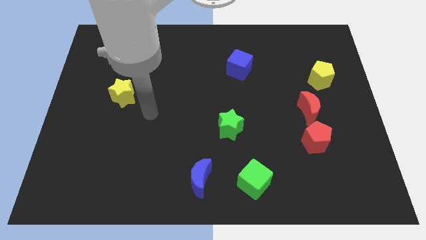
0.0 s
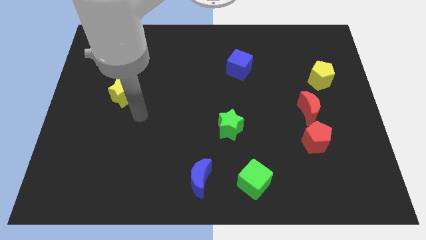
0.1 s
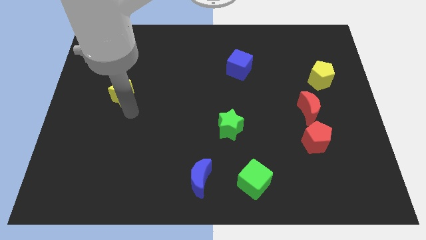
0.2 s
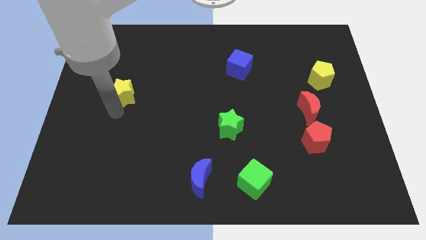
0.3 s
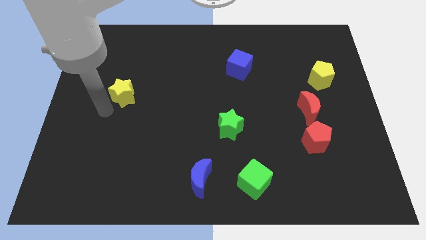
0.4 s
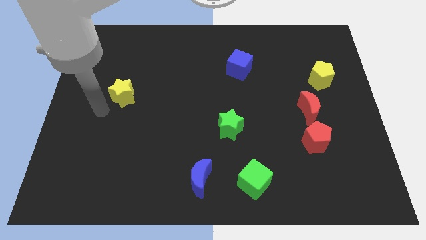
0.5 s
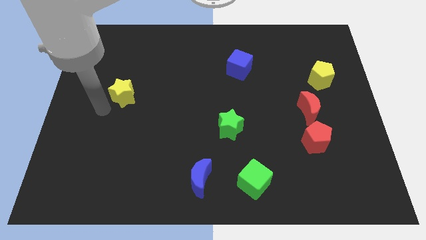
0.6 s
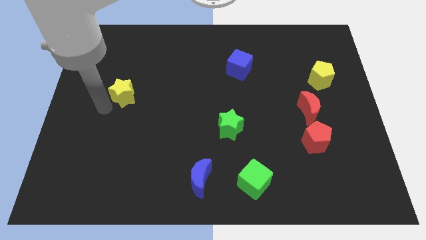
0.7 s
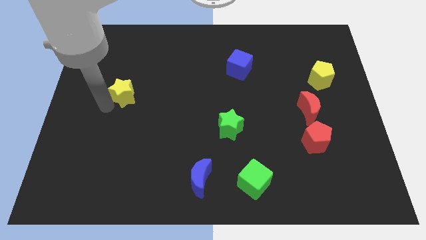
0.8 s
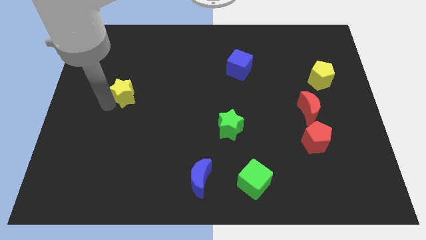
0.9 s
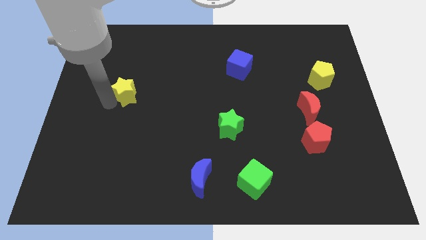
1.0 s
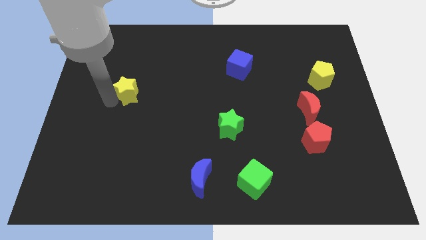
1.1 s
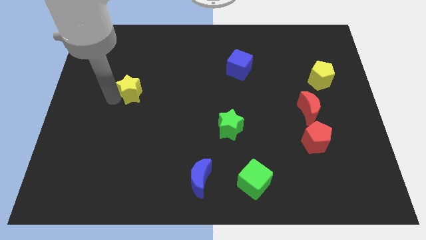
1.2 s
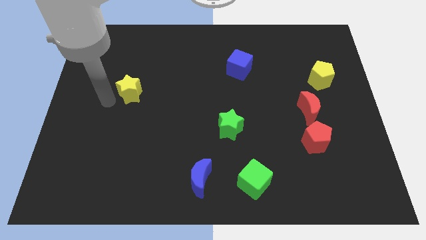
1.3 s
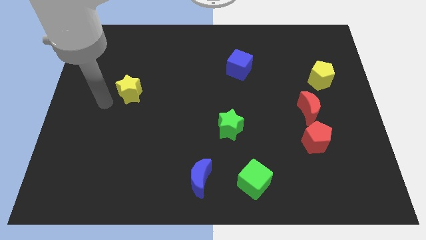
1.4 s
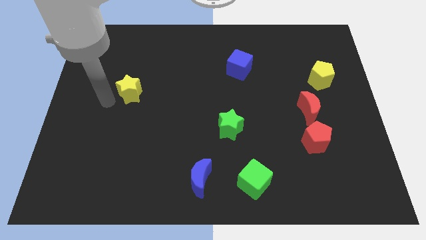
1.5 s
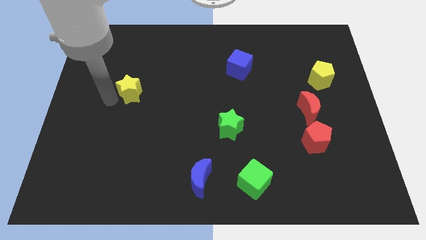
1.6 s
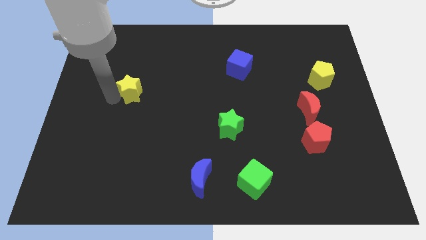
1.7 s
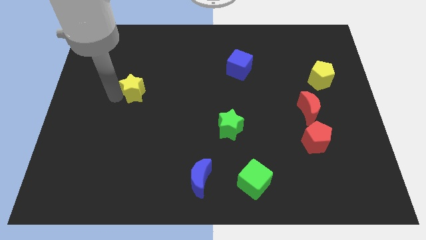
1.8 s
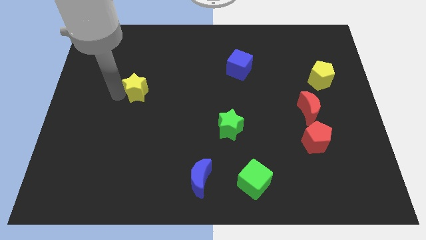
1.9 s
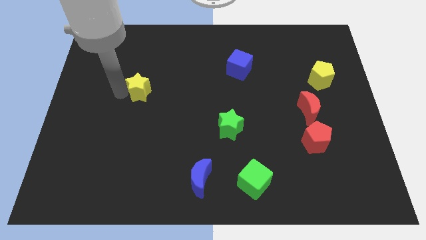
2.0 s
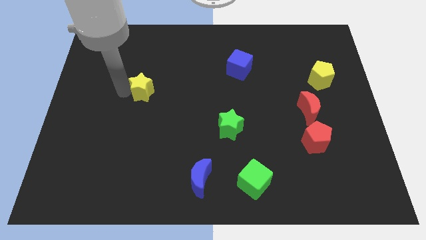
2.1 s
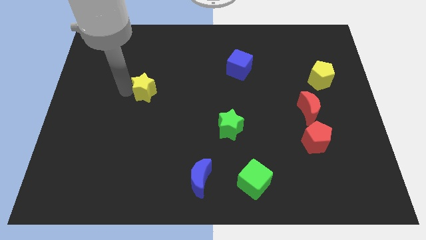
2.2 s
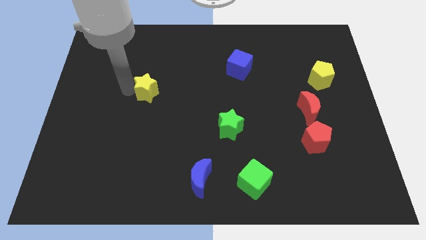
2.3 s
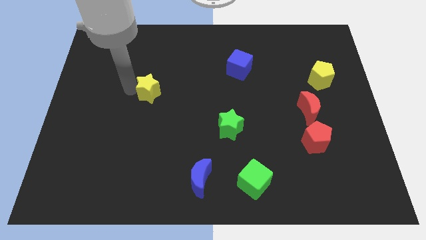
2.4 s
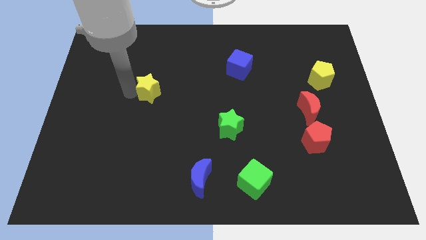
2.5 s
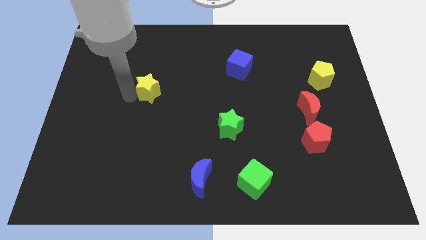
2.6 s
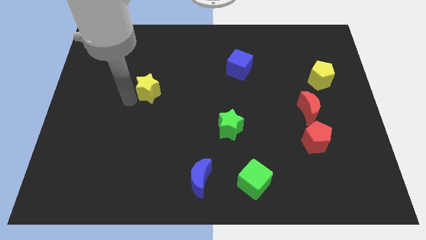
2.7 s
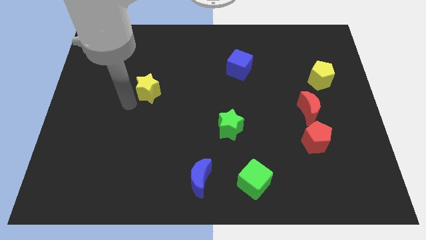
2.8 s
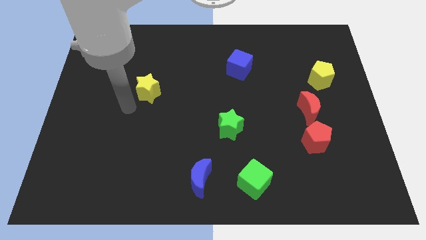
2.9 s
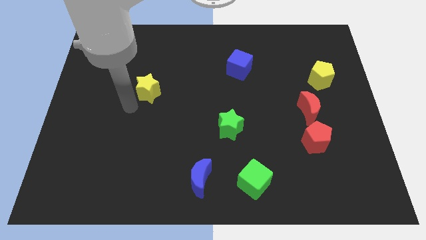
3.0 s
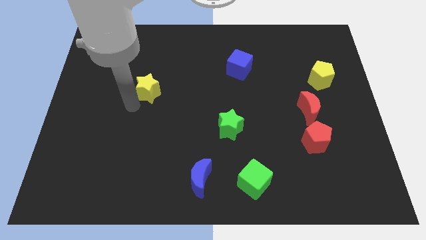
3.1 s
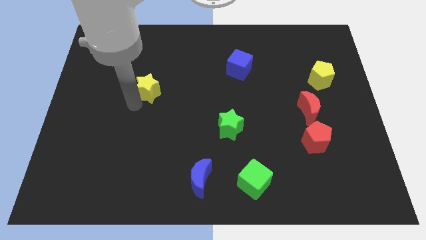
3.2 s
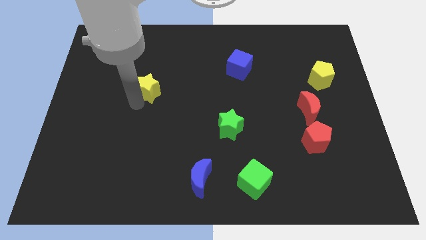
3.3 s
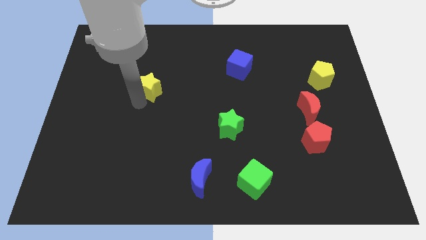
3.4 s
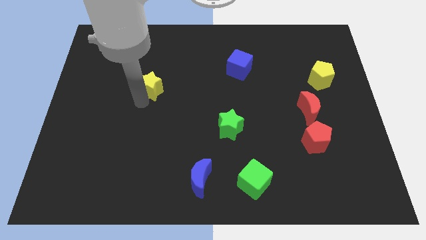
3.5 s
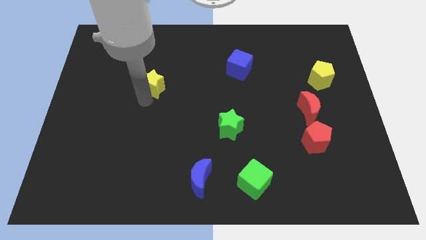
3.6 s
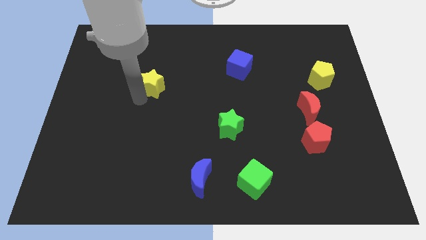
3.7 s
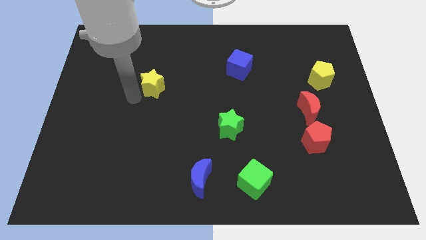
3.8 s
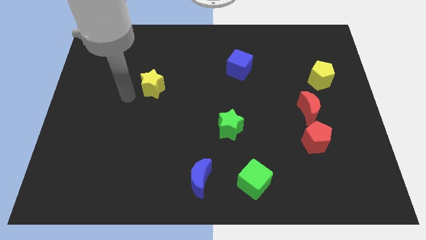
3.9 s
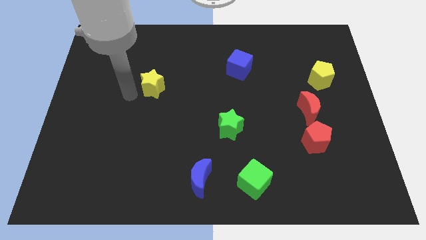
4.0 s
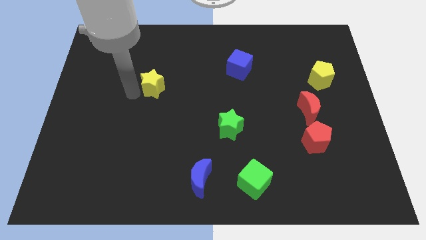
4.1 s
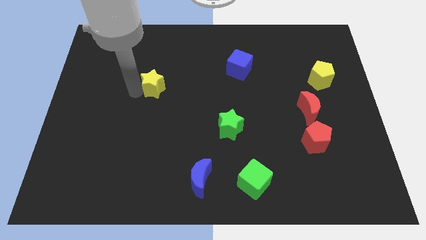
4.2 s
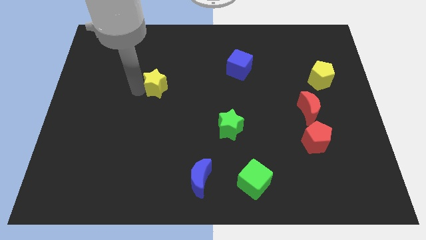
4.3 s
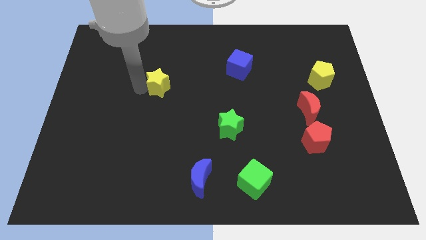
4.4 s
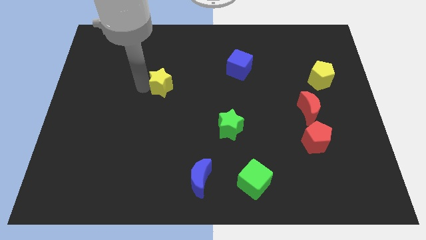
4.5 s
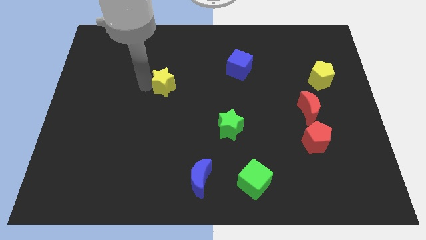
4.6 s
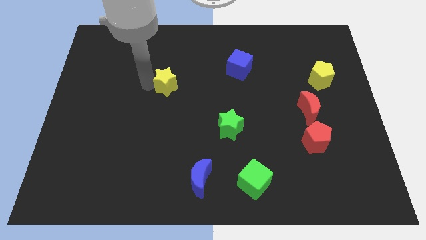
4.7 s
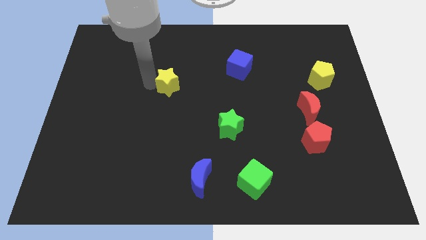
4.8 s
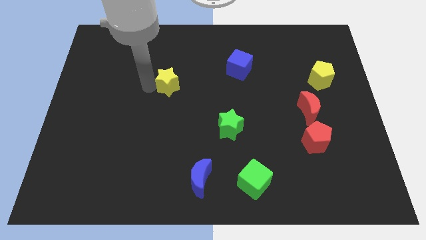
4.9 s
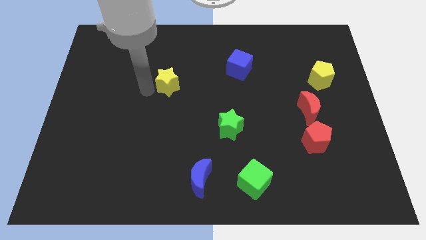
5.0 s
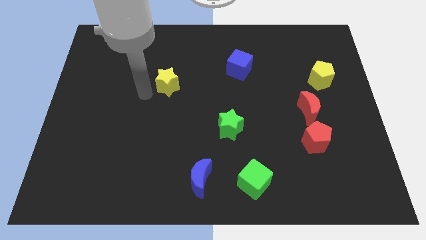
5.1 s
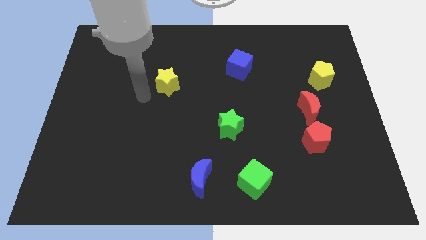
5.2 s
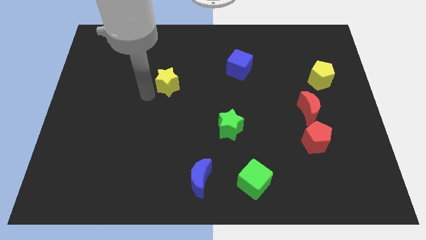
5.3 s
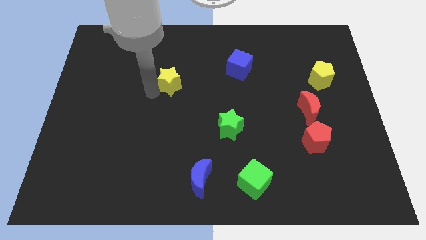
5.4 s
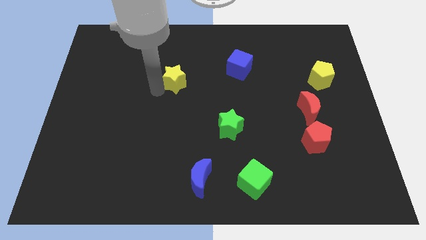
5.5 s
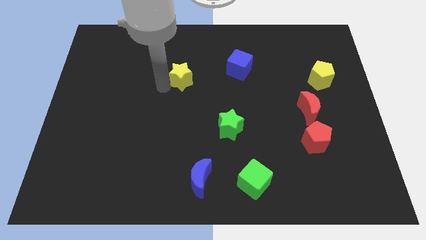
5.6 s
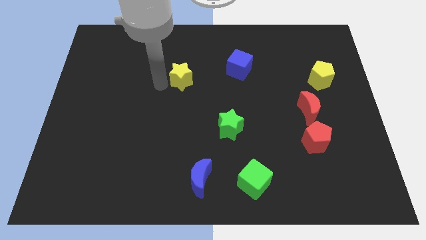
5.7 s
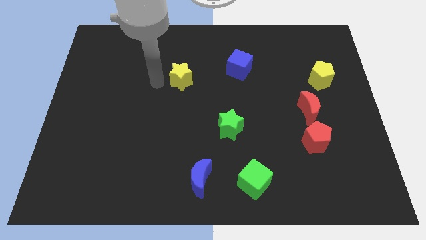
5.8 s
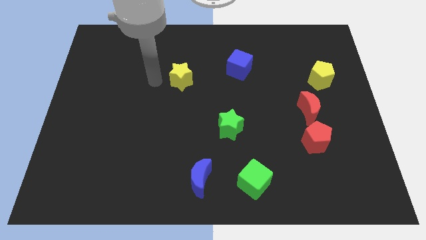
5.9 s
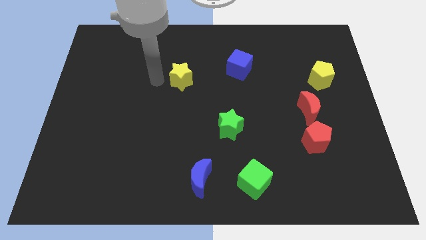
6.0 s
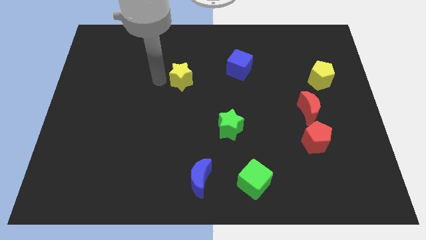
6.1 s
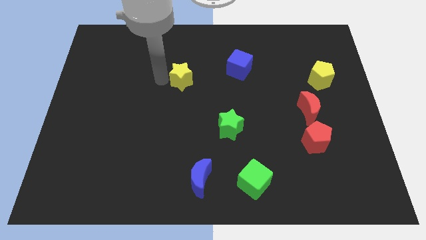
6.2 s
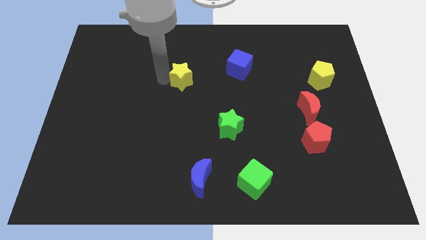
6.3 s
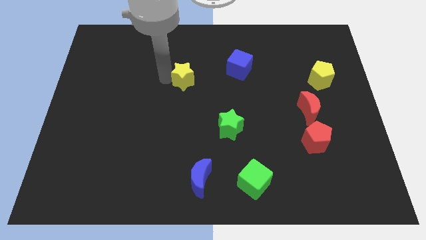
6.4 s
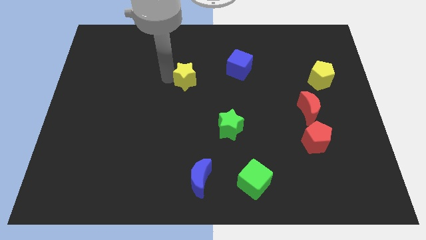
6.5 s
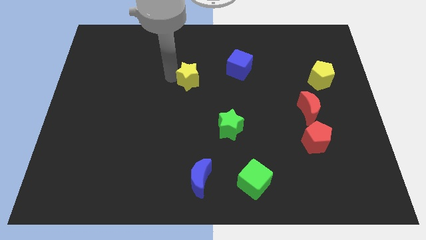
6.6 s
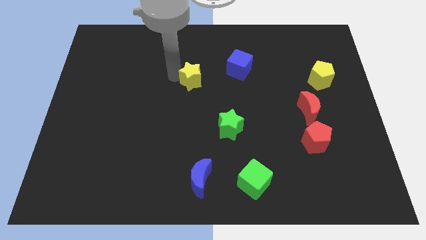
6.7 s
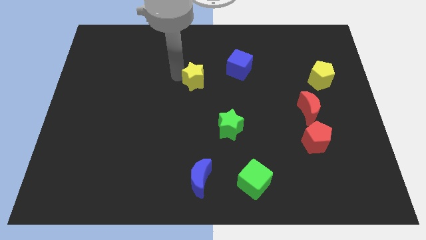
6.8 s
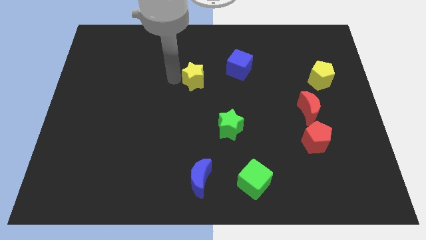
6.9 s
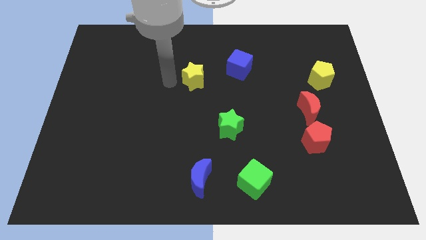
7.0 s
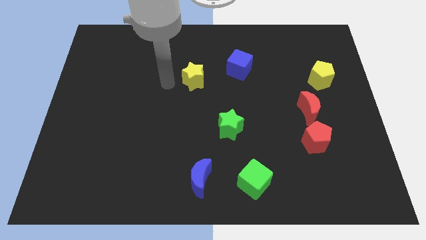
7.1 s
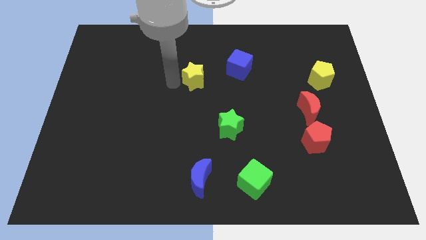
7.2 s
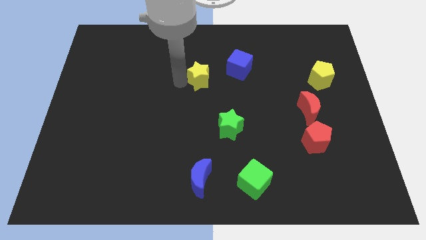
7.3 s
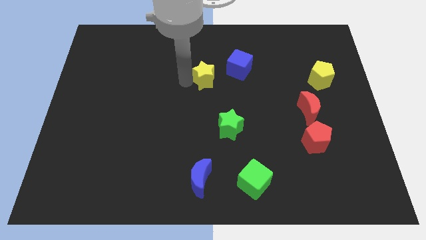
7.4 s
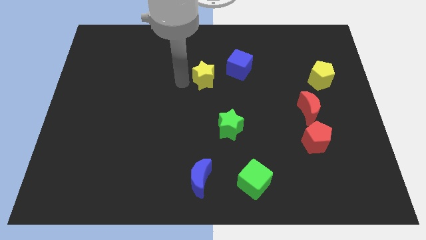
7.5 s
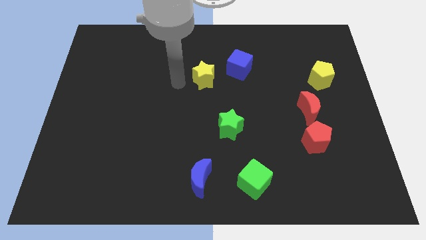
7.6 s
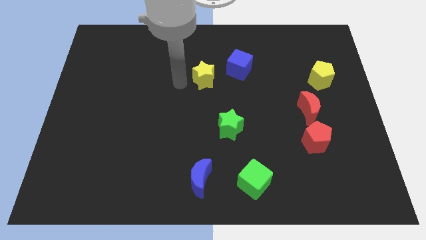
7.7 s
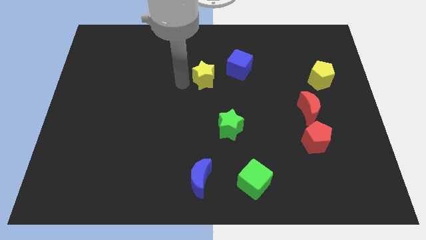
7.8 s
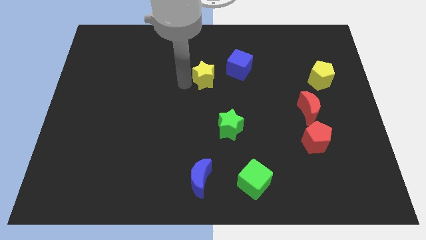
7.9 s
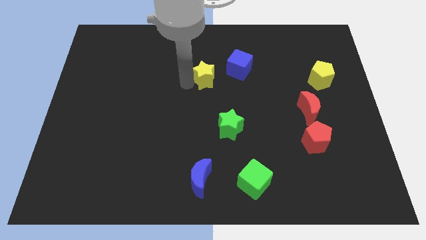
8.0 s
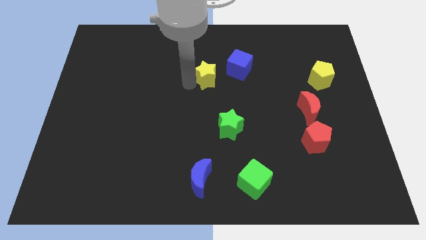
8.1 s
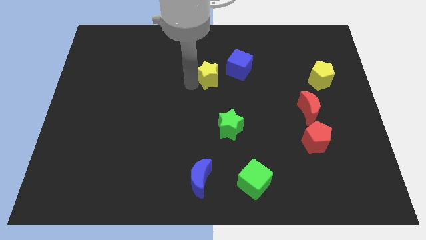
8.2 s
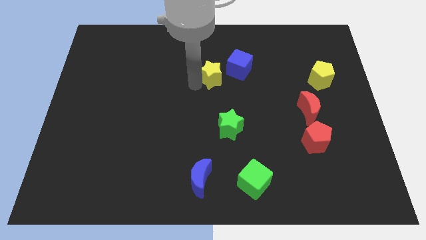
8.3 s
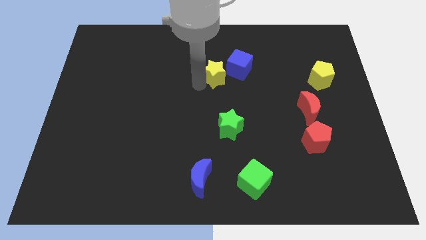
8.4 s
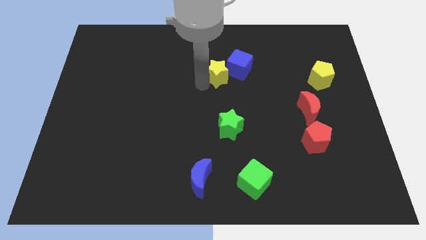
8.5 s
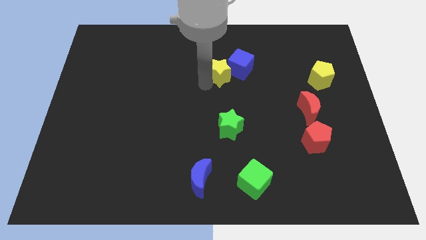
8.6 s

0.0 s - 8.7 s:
put the yellow star towards the blue cube
